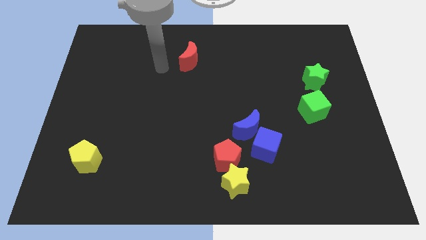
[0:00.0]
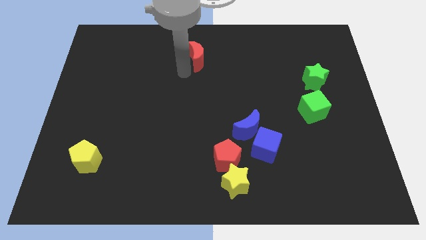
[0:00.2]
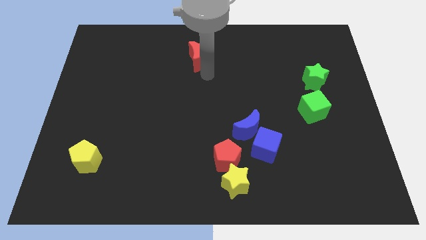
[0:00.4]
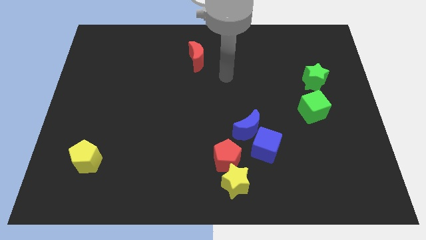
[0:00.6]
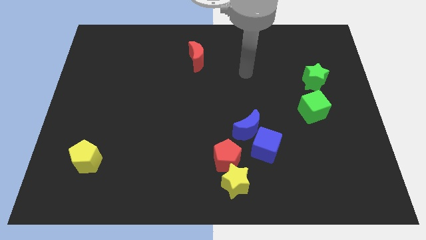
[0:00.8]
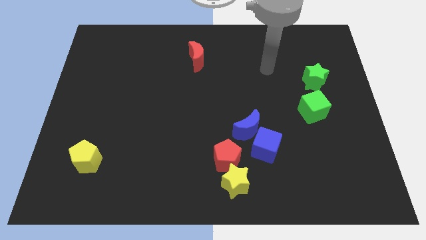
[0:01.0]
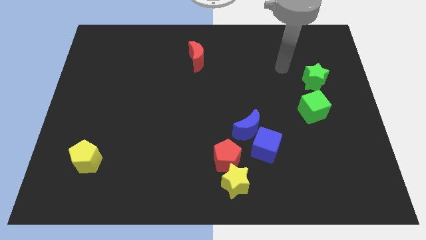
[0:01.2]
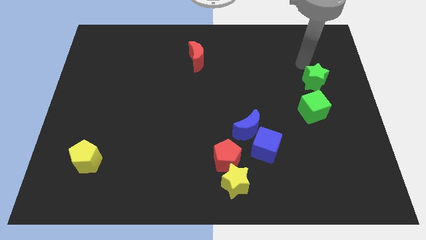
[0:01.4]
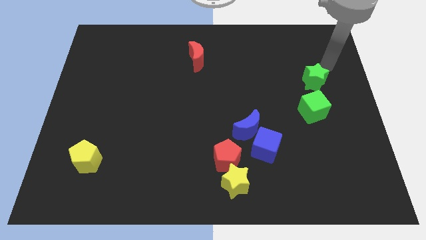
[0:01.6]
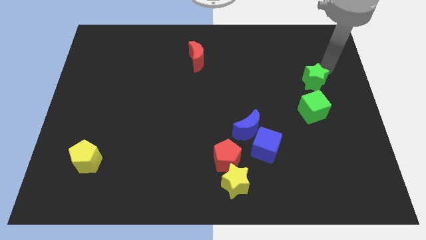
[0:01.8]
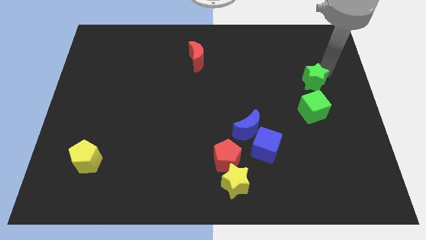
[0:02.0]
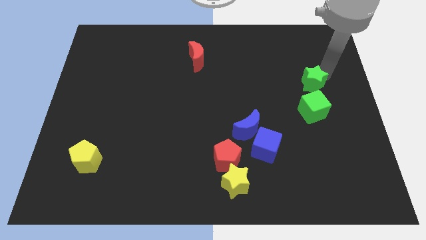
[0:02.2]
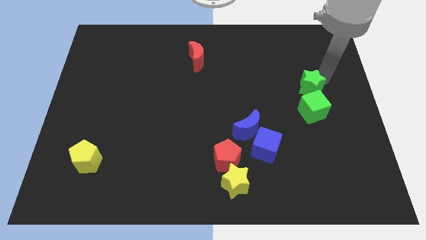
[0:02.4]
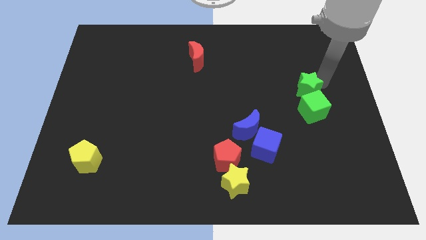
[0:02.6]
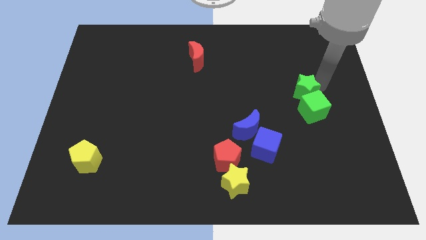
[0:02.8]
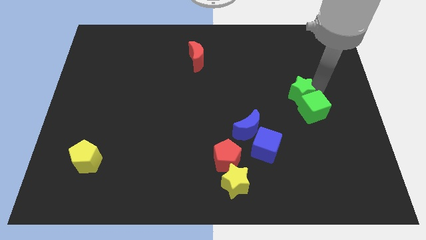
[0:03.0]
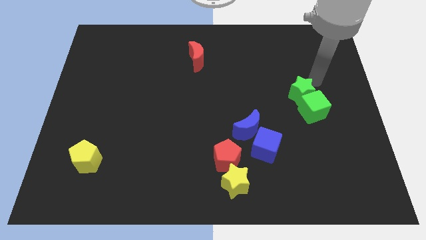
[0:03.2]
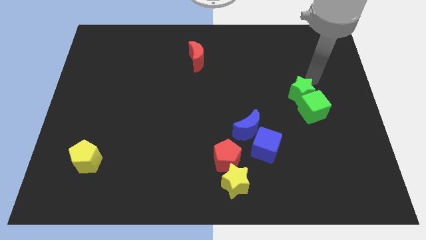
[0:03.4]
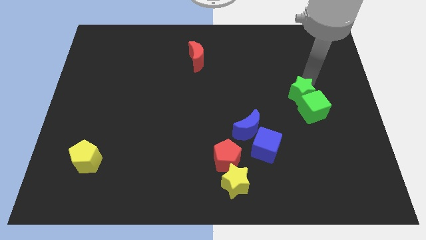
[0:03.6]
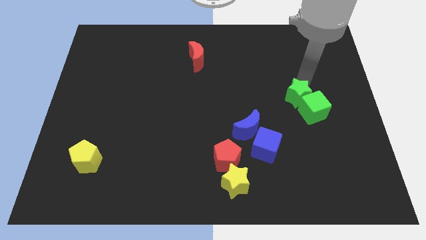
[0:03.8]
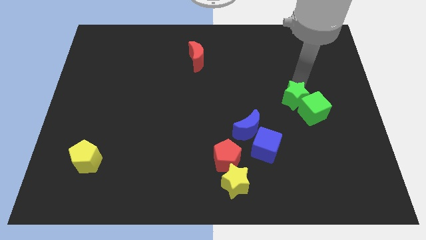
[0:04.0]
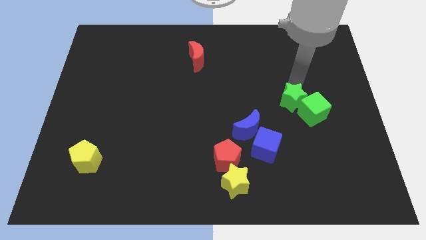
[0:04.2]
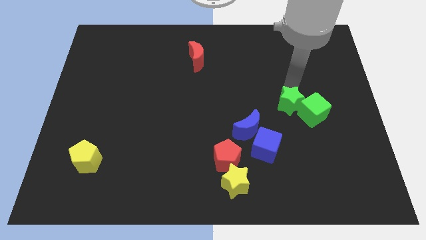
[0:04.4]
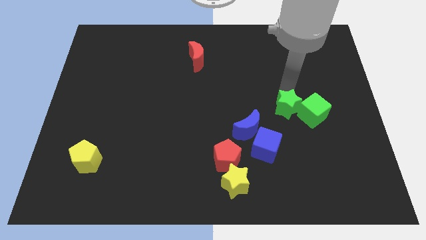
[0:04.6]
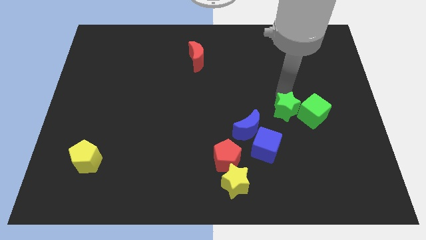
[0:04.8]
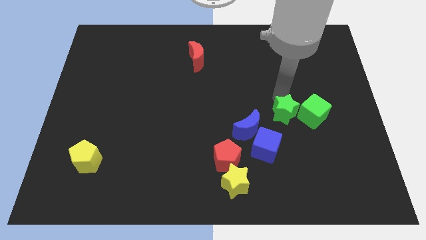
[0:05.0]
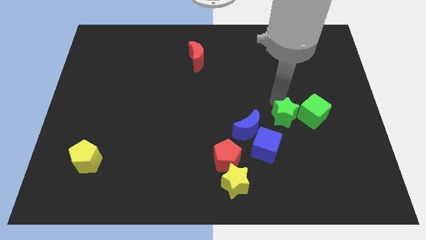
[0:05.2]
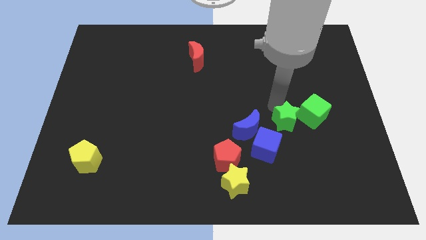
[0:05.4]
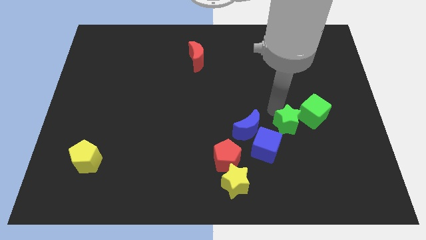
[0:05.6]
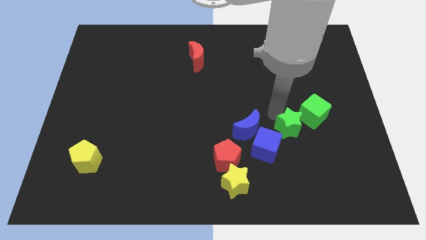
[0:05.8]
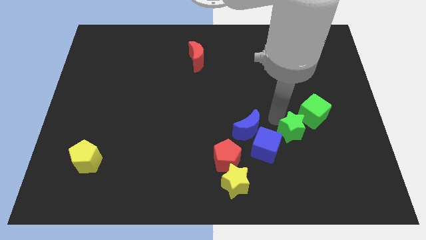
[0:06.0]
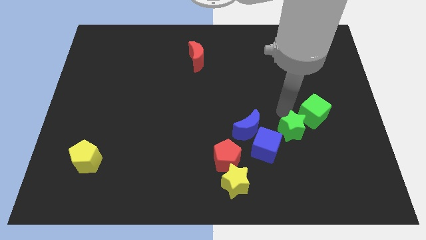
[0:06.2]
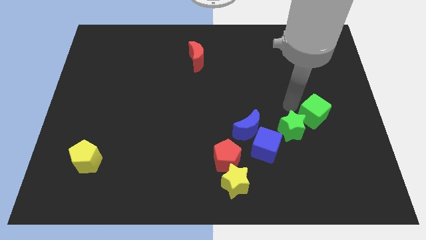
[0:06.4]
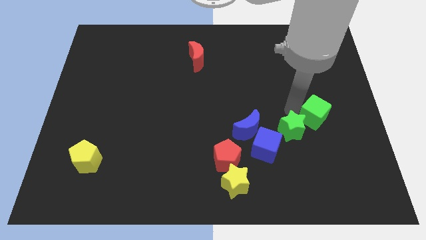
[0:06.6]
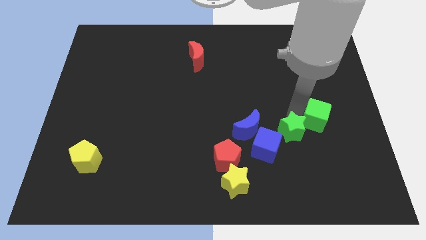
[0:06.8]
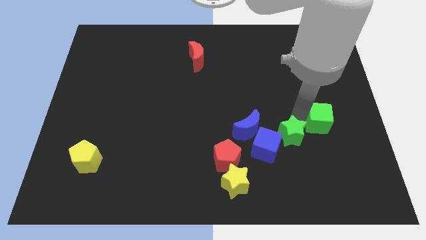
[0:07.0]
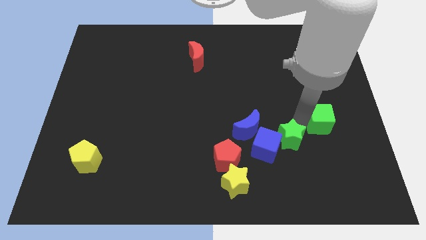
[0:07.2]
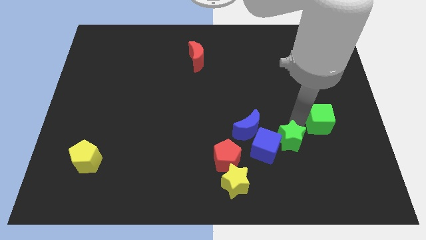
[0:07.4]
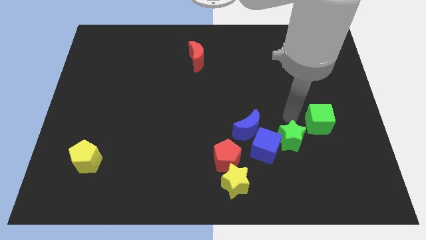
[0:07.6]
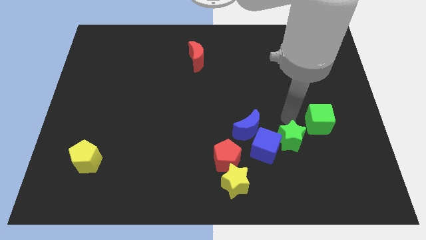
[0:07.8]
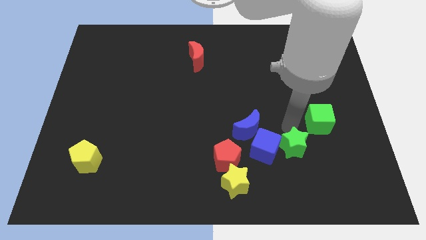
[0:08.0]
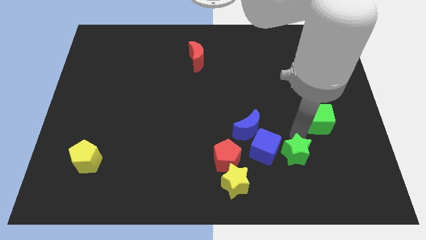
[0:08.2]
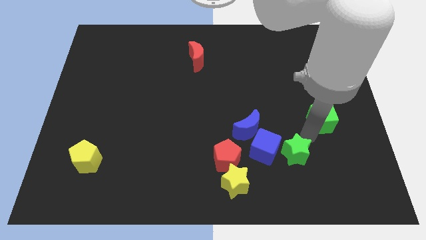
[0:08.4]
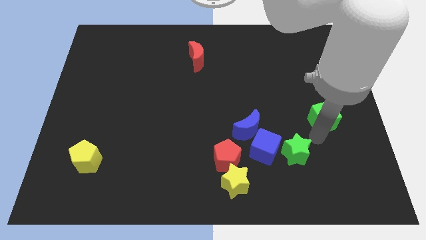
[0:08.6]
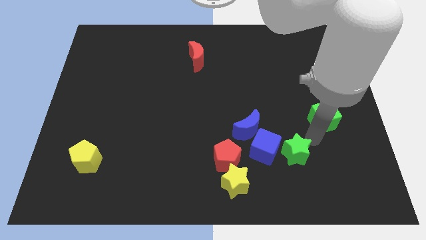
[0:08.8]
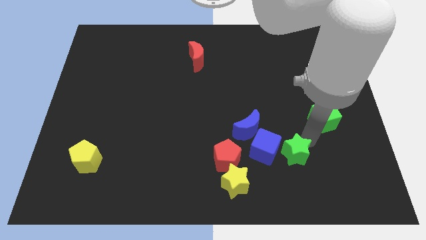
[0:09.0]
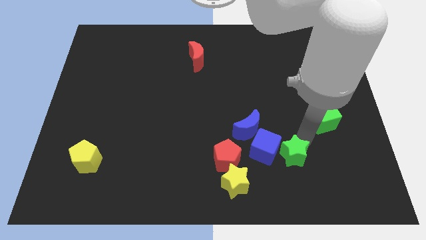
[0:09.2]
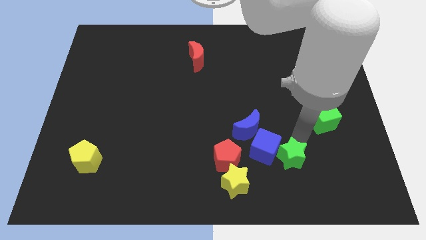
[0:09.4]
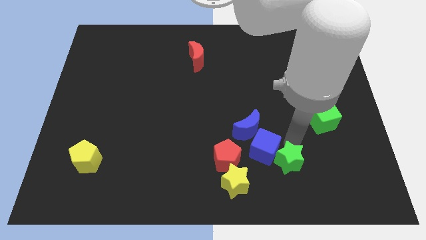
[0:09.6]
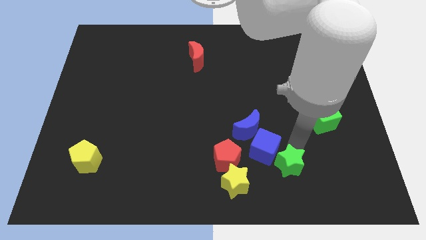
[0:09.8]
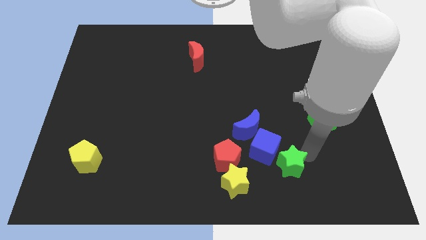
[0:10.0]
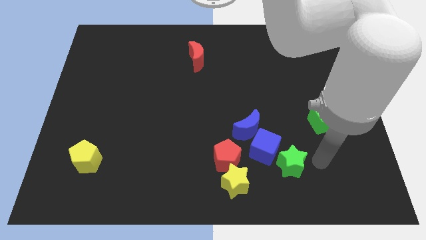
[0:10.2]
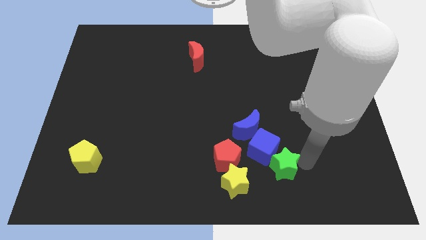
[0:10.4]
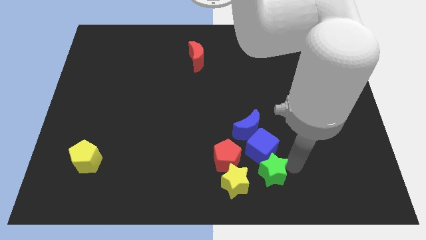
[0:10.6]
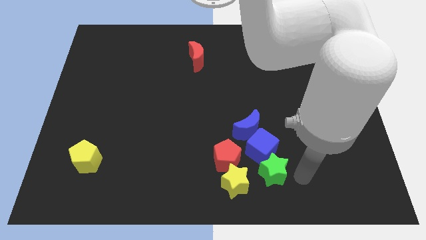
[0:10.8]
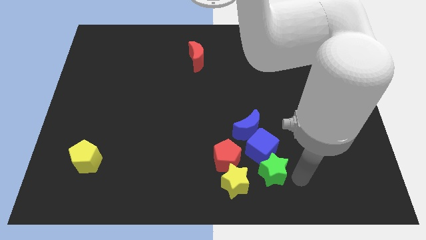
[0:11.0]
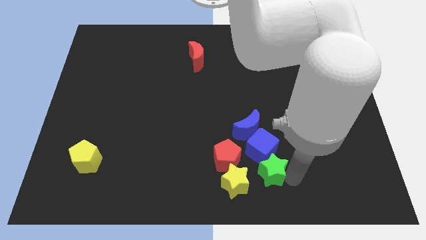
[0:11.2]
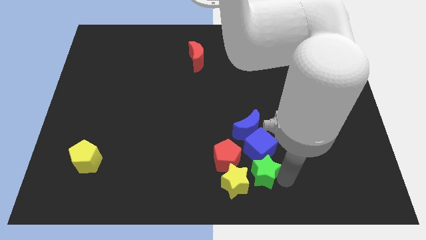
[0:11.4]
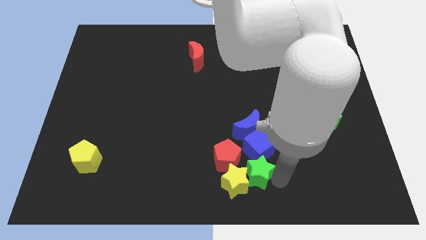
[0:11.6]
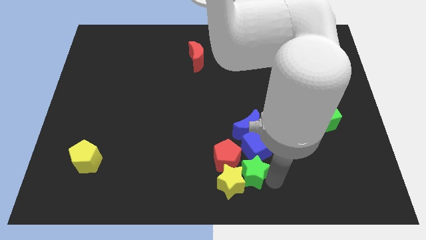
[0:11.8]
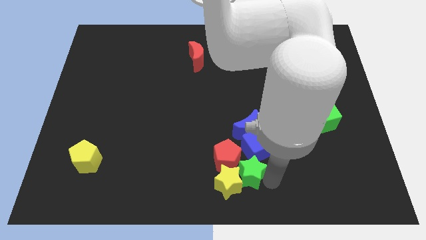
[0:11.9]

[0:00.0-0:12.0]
slide the green star towards the red pentagon
